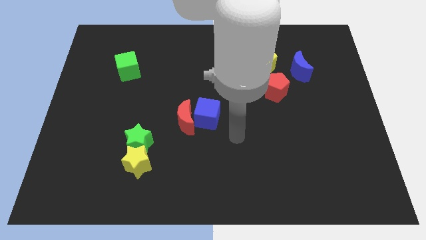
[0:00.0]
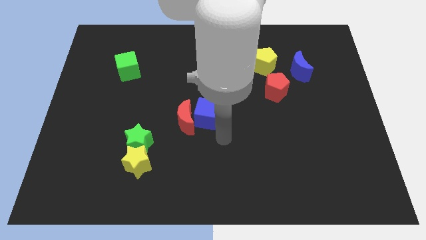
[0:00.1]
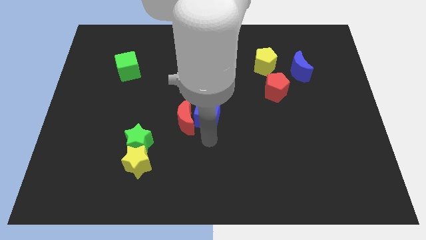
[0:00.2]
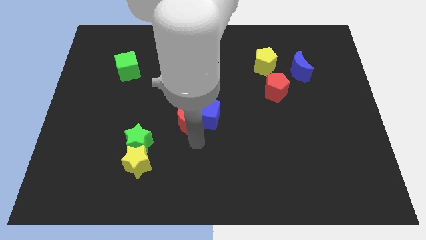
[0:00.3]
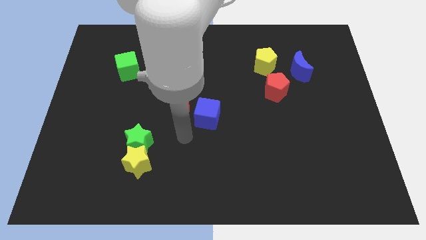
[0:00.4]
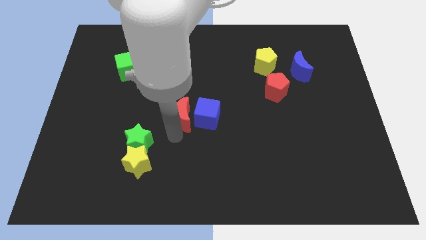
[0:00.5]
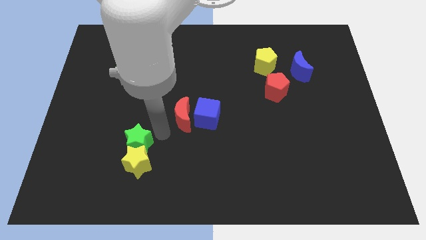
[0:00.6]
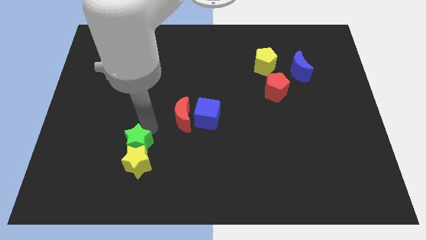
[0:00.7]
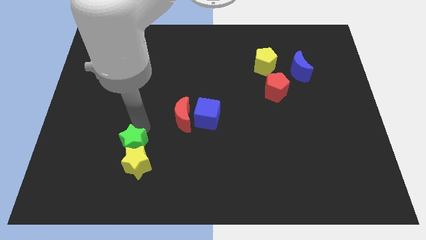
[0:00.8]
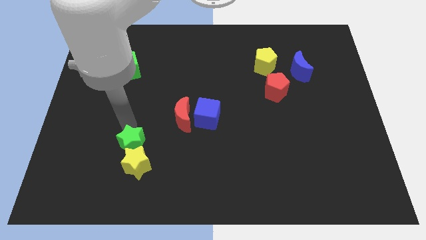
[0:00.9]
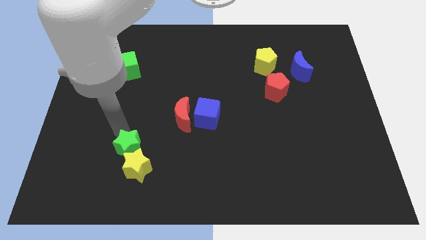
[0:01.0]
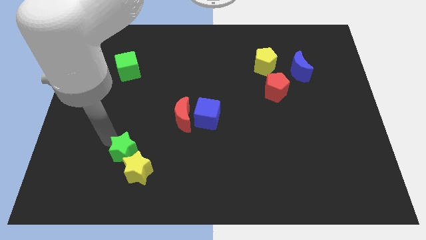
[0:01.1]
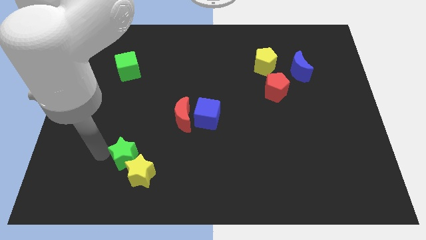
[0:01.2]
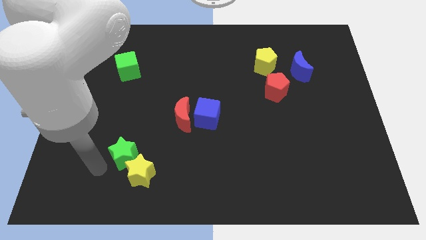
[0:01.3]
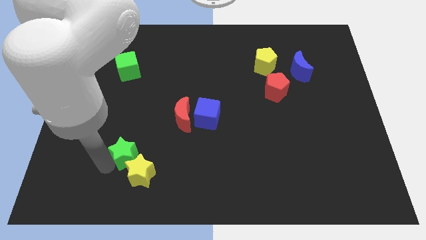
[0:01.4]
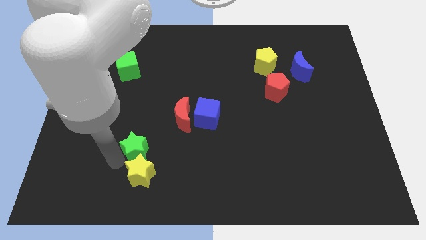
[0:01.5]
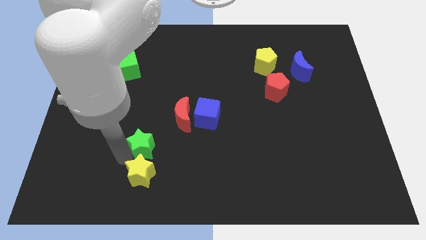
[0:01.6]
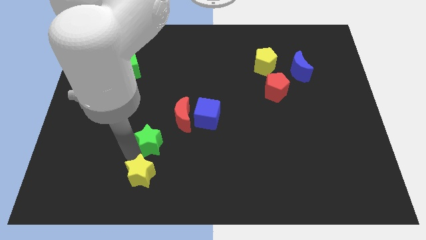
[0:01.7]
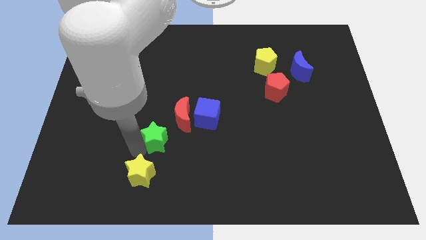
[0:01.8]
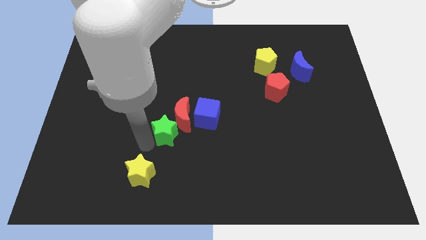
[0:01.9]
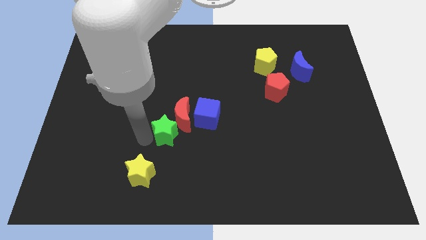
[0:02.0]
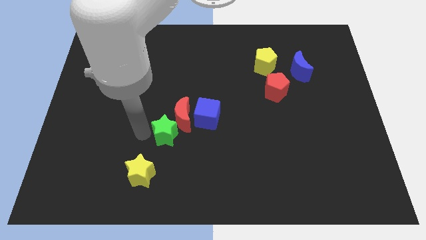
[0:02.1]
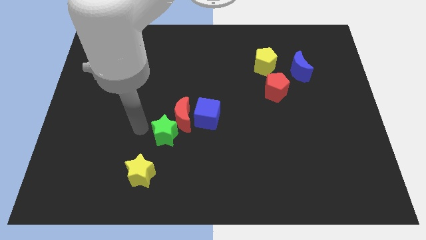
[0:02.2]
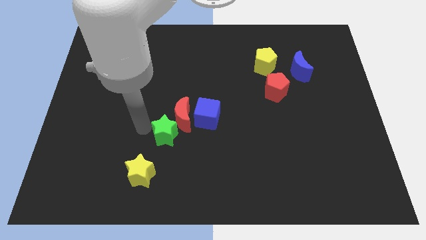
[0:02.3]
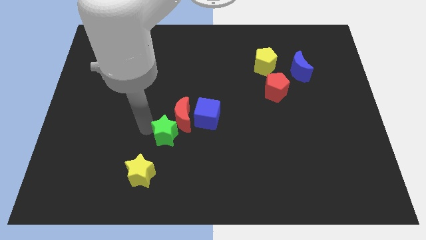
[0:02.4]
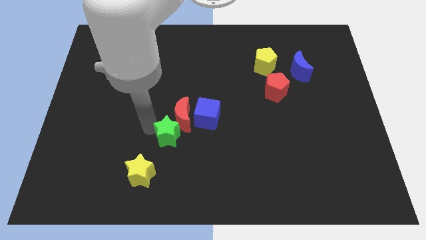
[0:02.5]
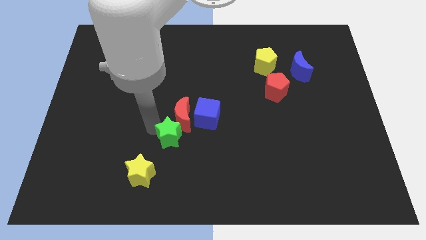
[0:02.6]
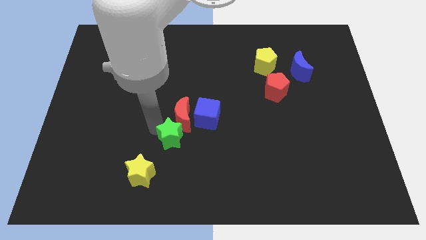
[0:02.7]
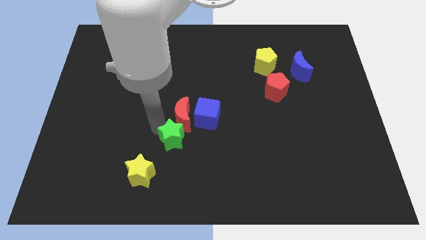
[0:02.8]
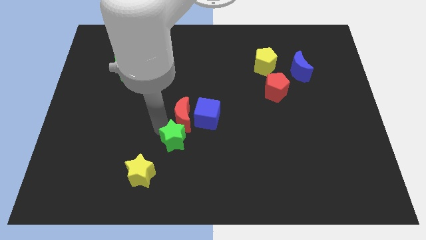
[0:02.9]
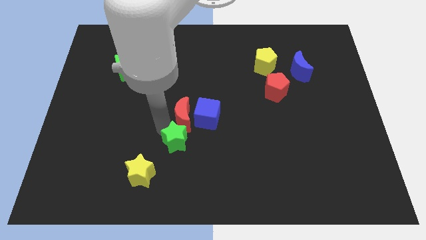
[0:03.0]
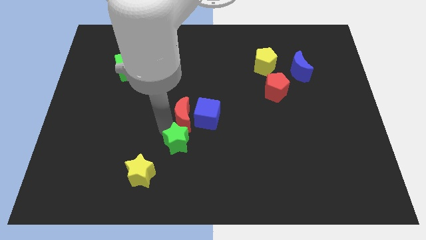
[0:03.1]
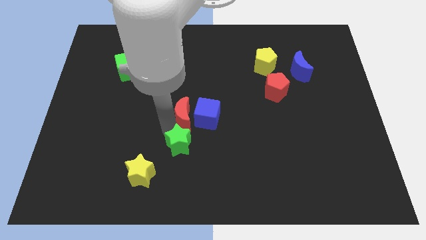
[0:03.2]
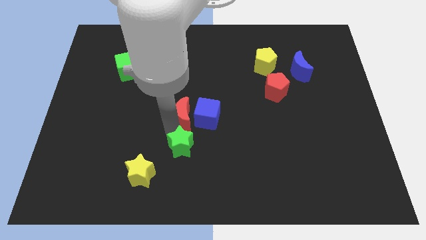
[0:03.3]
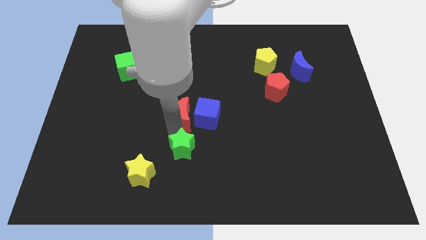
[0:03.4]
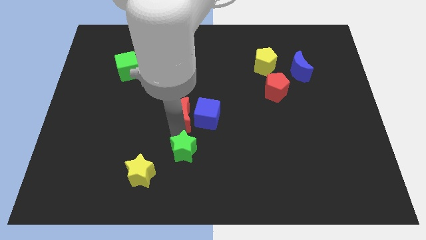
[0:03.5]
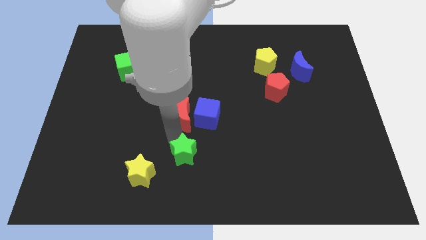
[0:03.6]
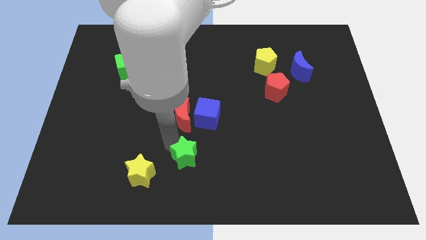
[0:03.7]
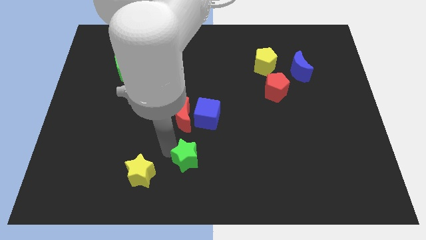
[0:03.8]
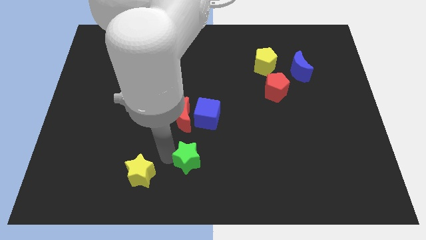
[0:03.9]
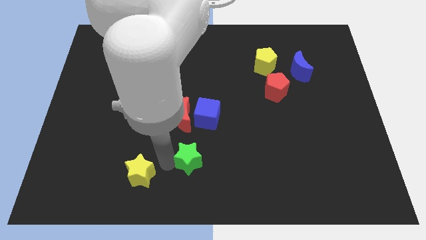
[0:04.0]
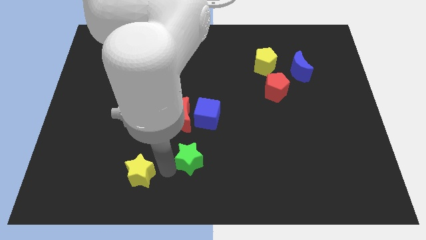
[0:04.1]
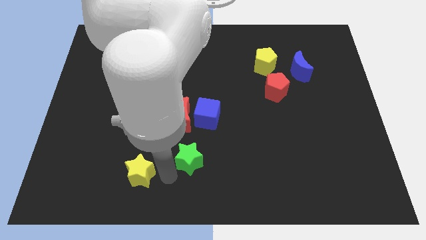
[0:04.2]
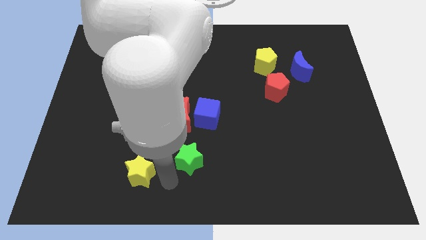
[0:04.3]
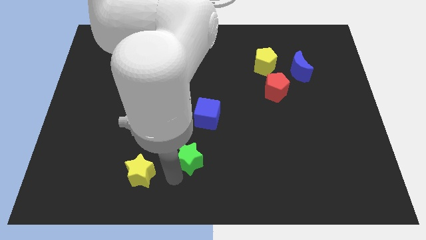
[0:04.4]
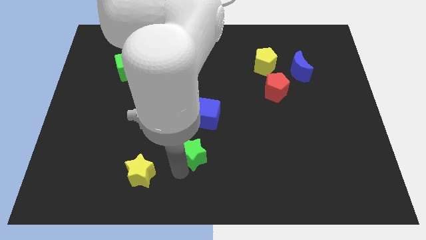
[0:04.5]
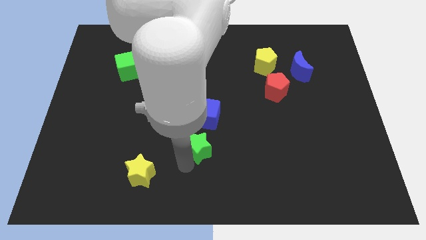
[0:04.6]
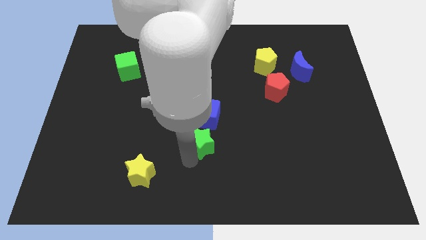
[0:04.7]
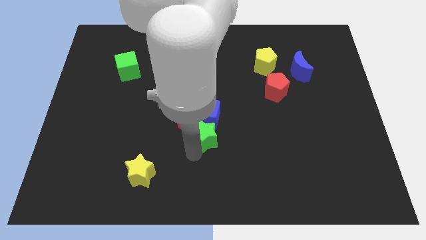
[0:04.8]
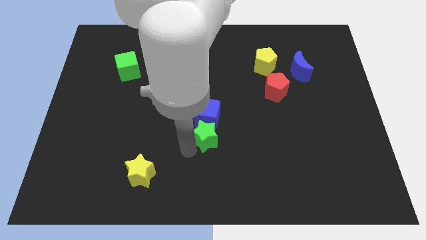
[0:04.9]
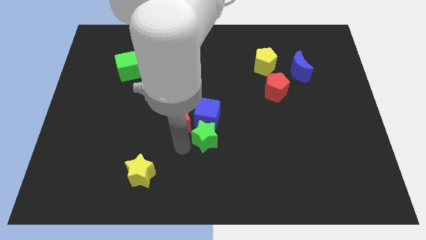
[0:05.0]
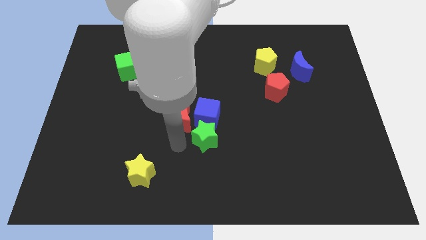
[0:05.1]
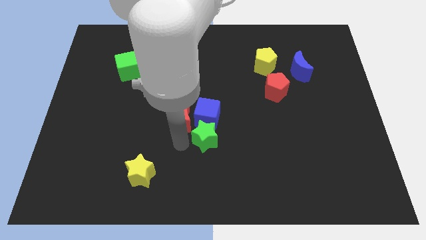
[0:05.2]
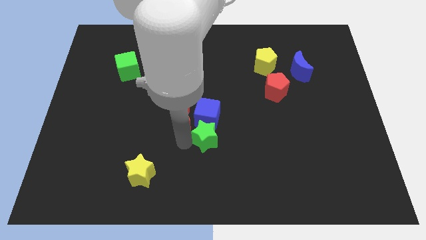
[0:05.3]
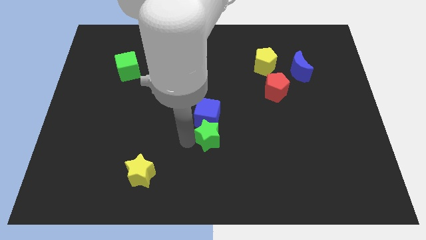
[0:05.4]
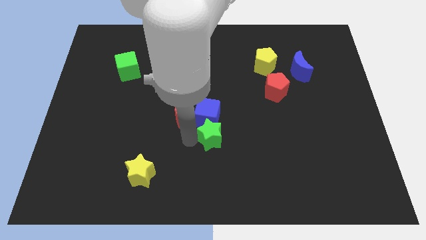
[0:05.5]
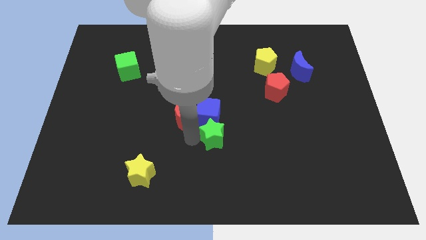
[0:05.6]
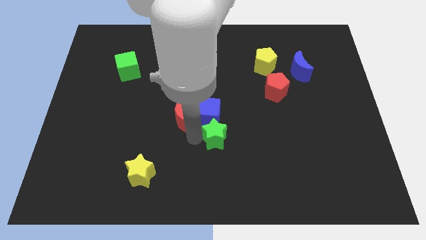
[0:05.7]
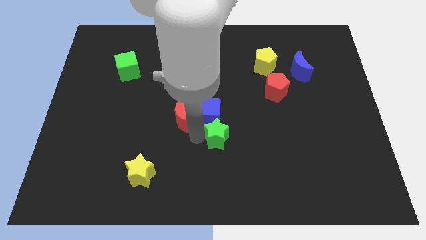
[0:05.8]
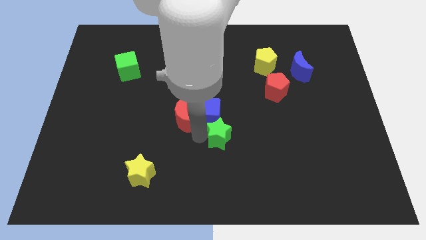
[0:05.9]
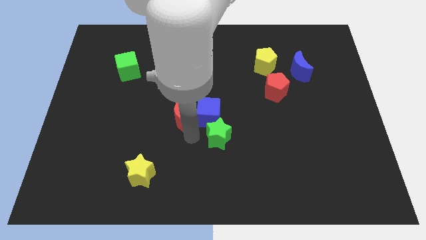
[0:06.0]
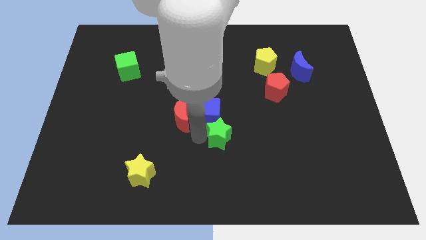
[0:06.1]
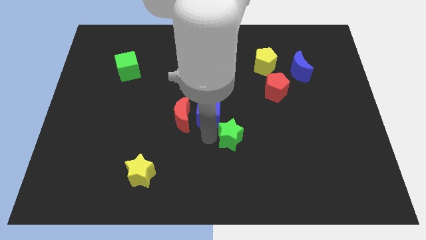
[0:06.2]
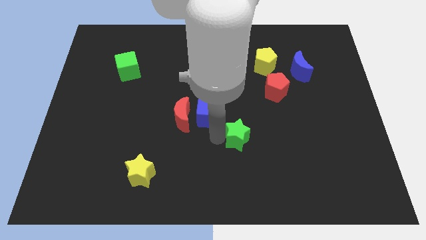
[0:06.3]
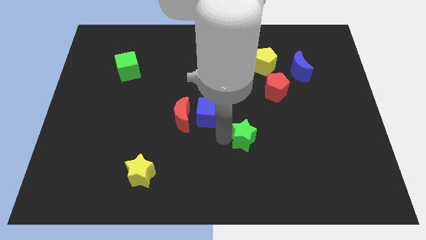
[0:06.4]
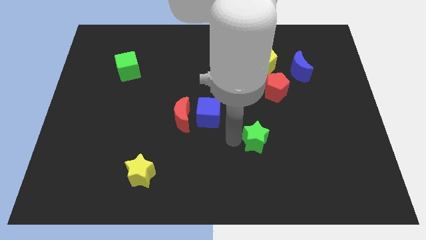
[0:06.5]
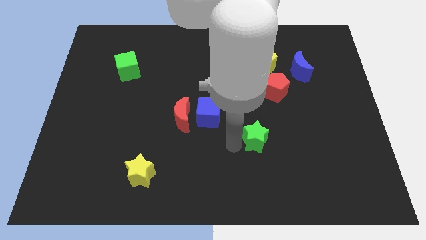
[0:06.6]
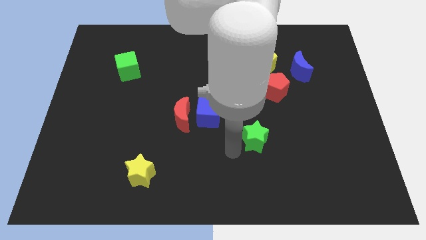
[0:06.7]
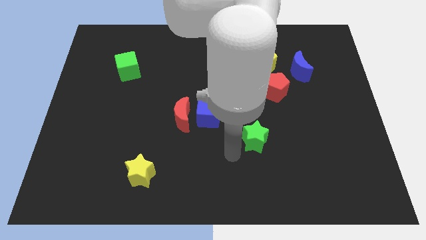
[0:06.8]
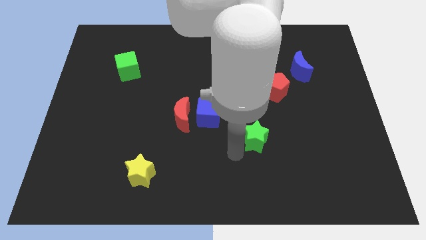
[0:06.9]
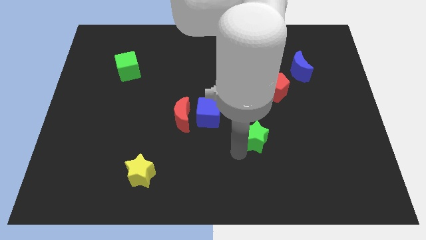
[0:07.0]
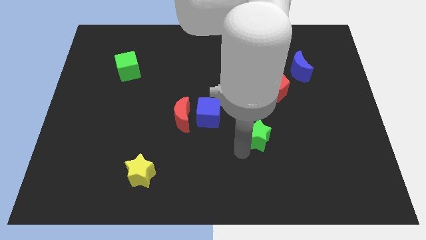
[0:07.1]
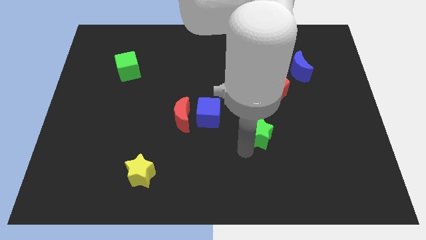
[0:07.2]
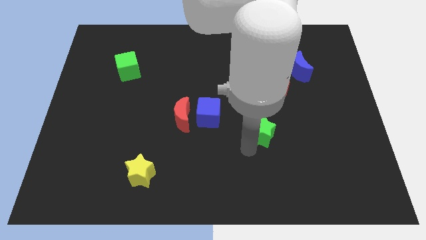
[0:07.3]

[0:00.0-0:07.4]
slide the green star to the bottom side of the red pentagon
